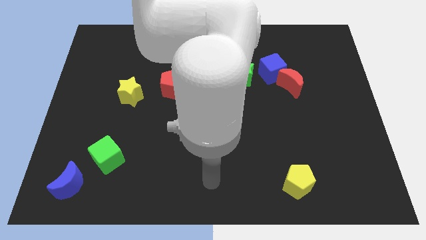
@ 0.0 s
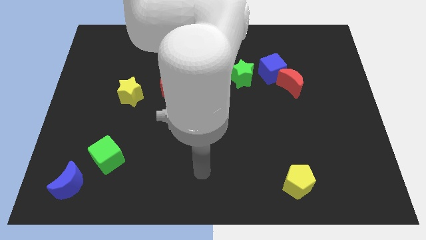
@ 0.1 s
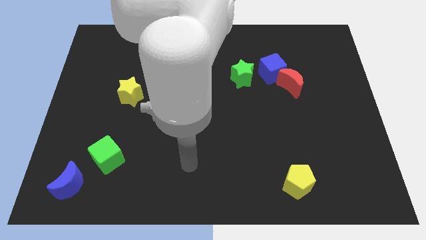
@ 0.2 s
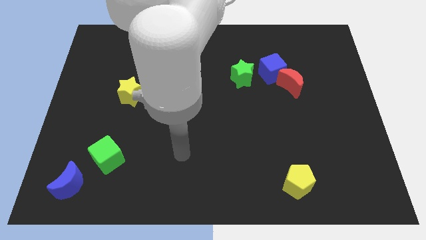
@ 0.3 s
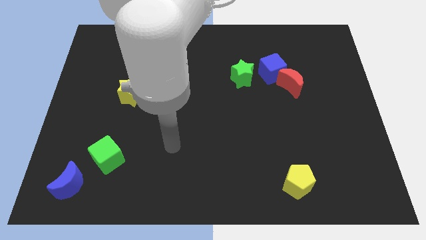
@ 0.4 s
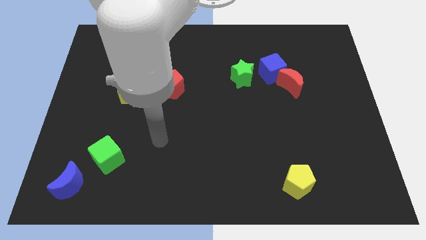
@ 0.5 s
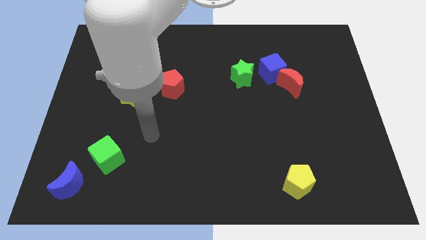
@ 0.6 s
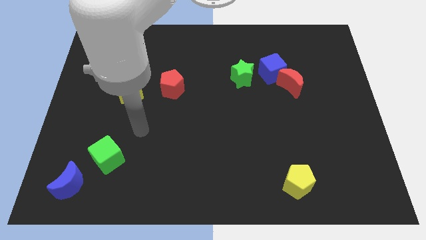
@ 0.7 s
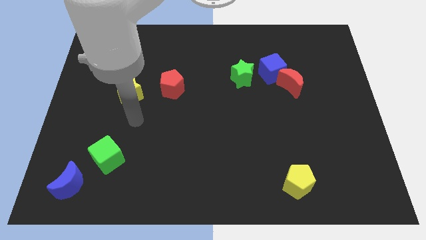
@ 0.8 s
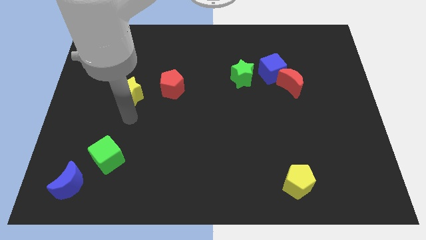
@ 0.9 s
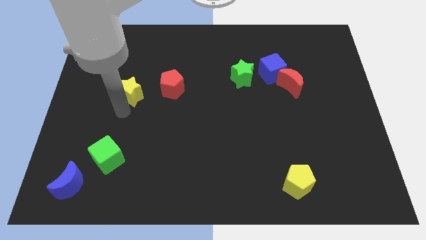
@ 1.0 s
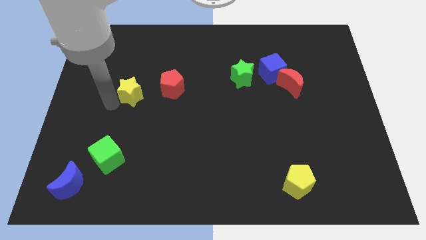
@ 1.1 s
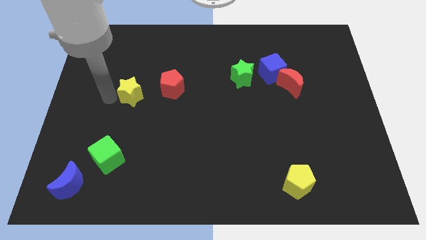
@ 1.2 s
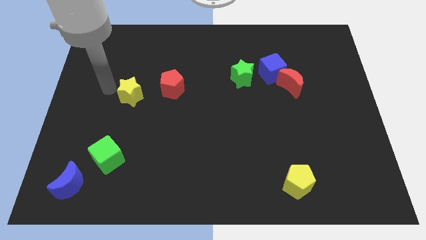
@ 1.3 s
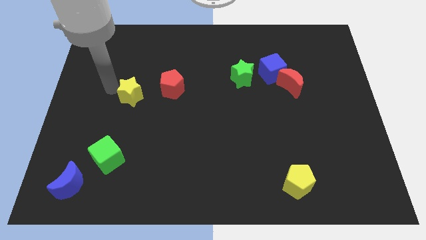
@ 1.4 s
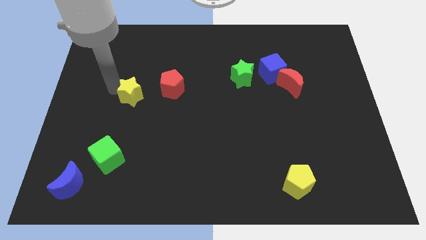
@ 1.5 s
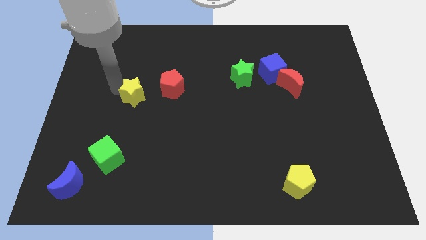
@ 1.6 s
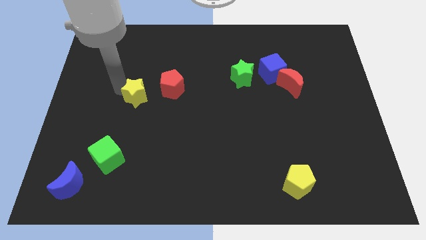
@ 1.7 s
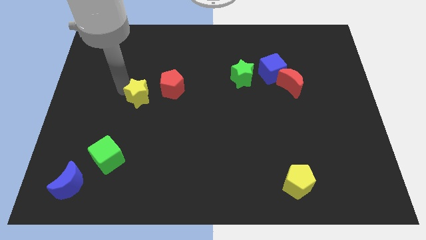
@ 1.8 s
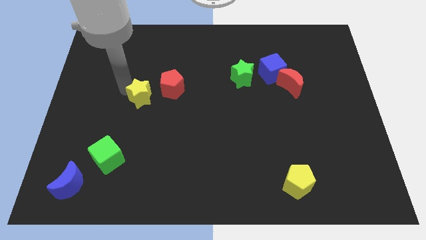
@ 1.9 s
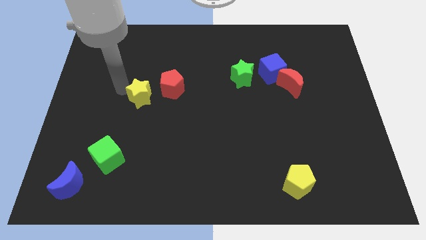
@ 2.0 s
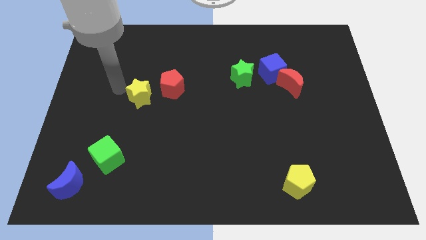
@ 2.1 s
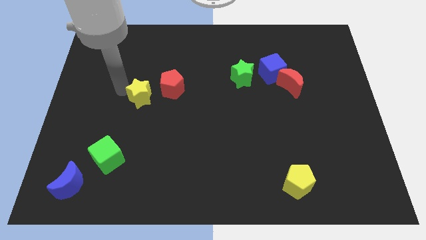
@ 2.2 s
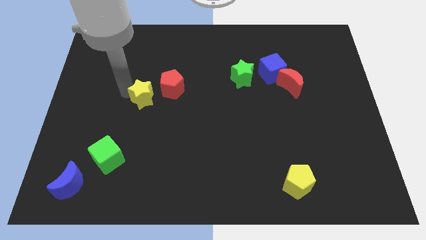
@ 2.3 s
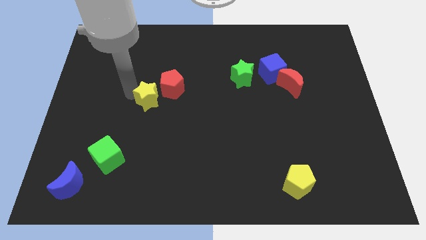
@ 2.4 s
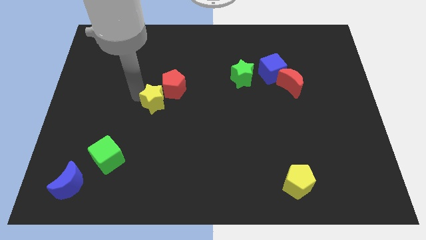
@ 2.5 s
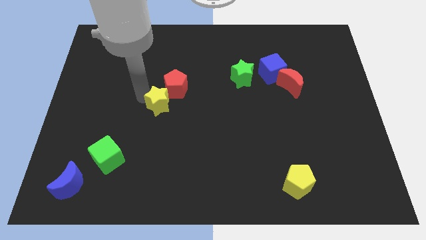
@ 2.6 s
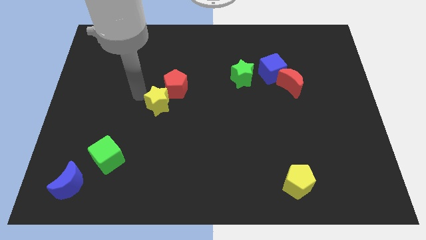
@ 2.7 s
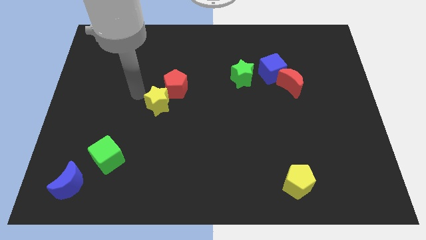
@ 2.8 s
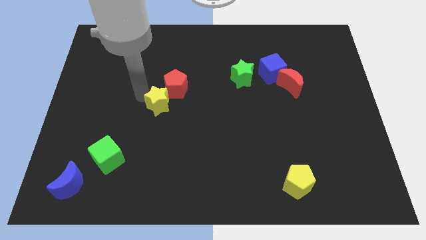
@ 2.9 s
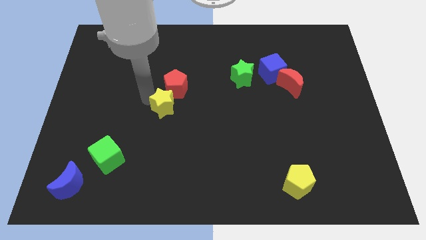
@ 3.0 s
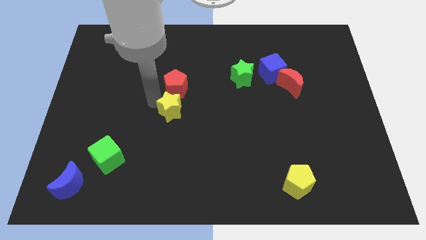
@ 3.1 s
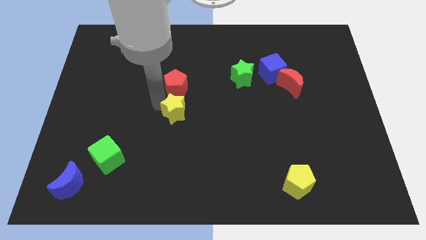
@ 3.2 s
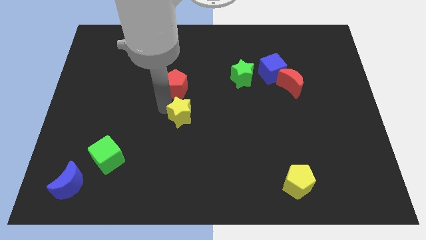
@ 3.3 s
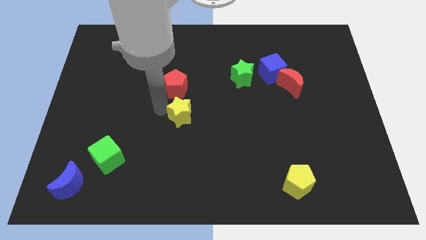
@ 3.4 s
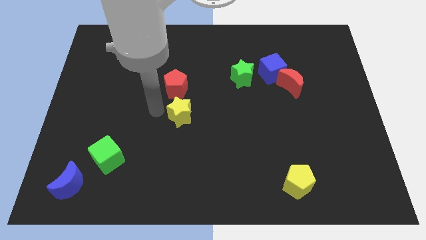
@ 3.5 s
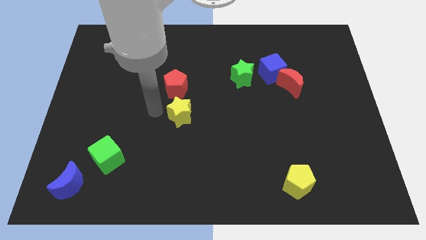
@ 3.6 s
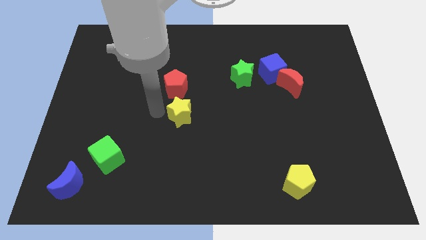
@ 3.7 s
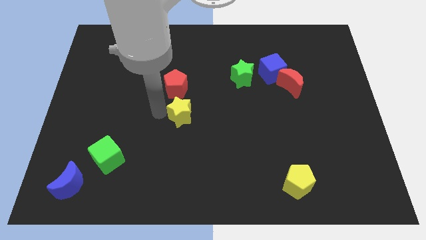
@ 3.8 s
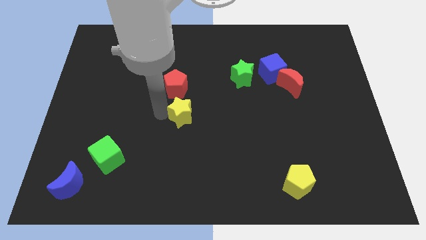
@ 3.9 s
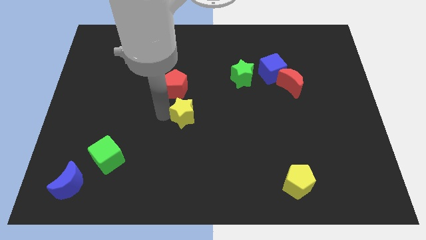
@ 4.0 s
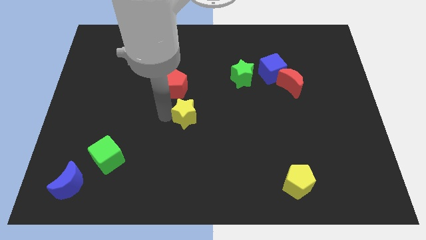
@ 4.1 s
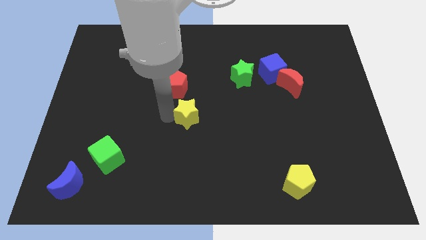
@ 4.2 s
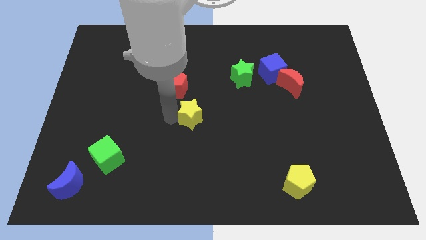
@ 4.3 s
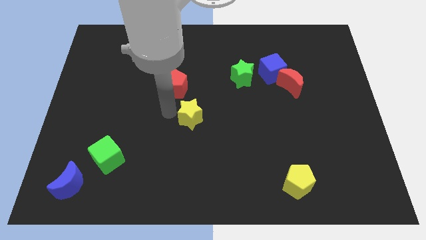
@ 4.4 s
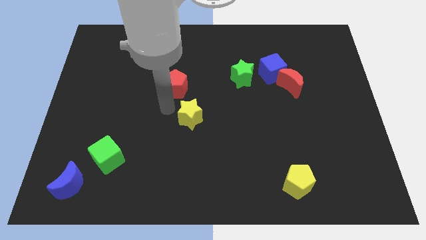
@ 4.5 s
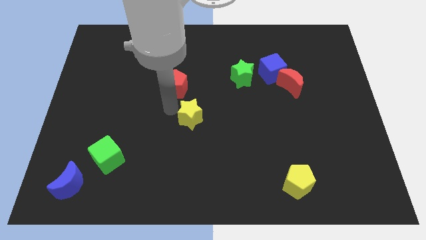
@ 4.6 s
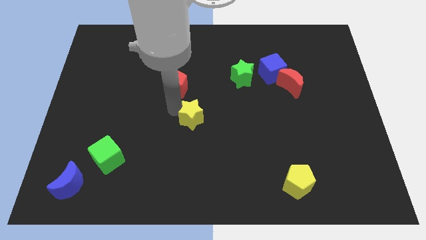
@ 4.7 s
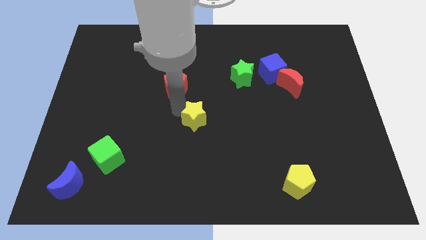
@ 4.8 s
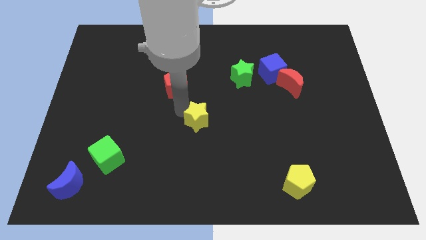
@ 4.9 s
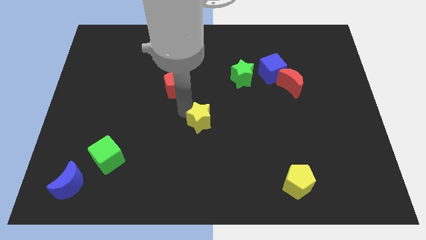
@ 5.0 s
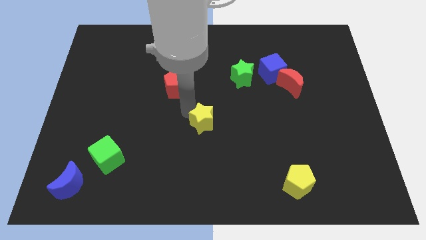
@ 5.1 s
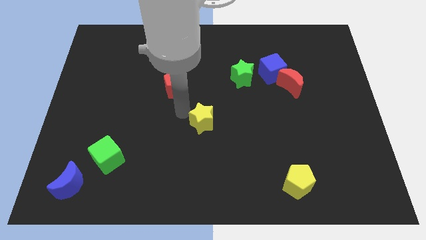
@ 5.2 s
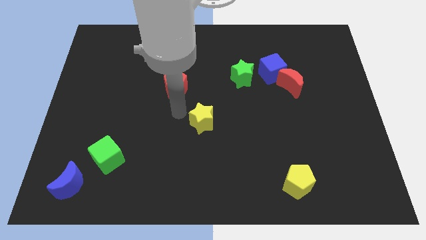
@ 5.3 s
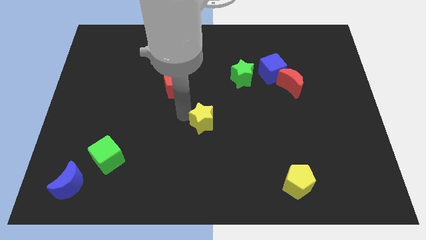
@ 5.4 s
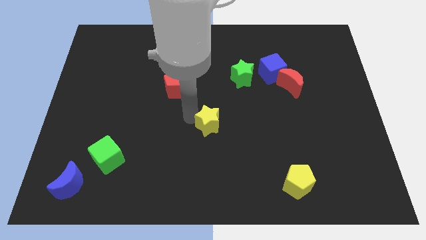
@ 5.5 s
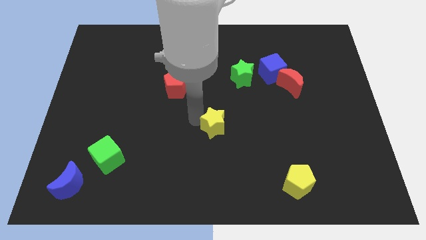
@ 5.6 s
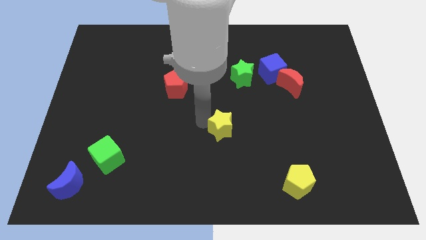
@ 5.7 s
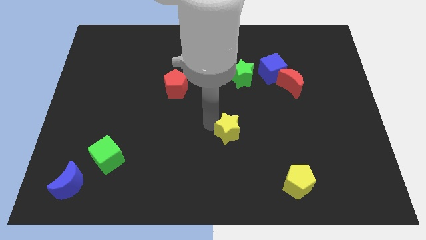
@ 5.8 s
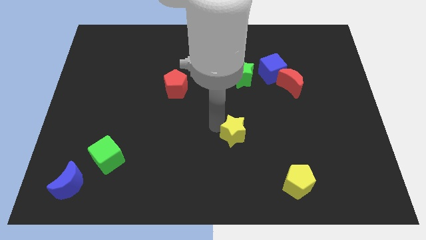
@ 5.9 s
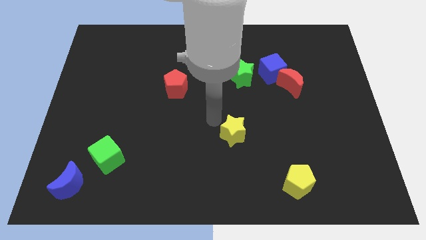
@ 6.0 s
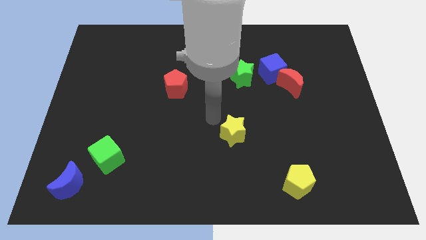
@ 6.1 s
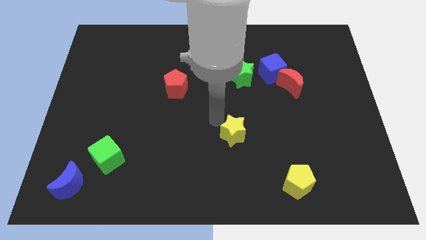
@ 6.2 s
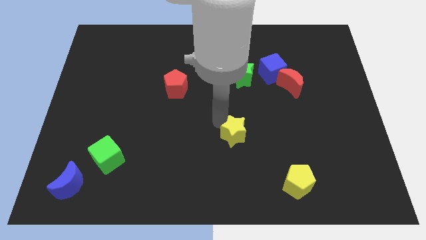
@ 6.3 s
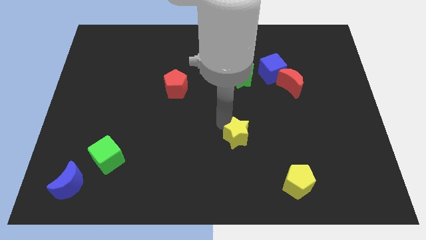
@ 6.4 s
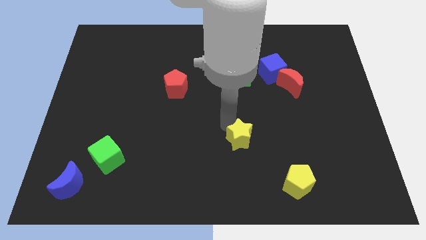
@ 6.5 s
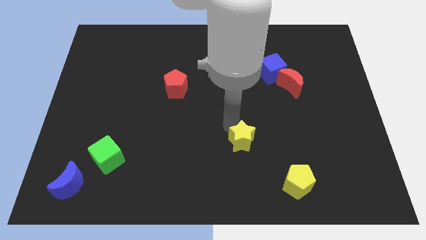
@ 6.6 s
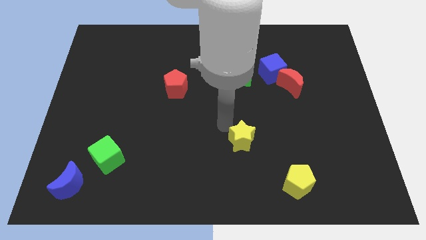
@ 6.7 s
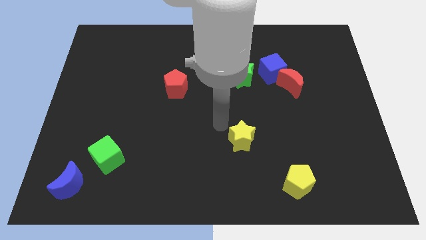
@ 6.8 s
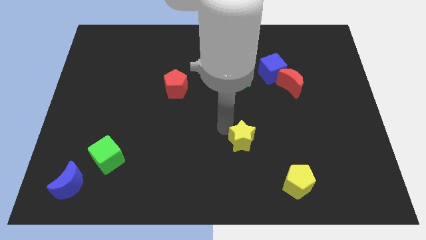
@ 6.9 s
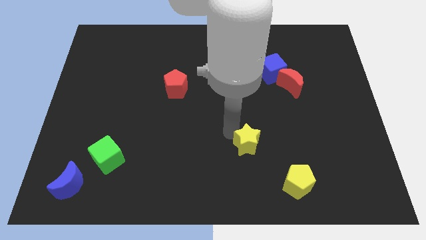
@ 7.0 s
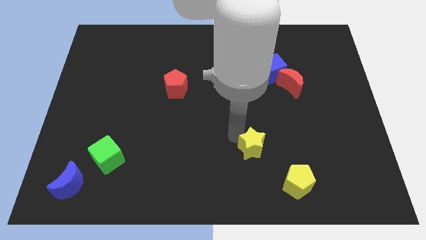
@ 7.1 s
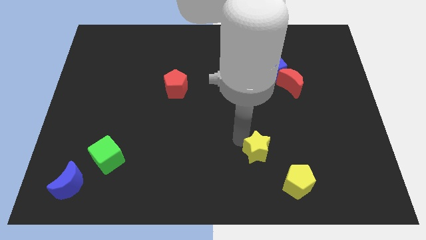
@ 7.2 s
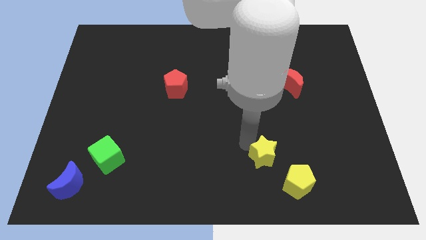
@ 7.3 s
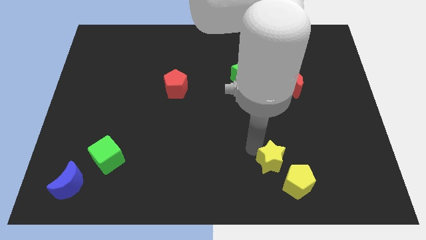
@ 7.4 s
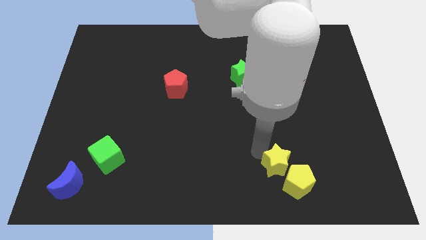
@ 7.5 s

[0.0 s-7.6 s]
push the yellow star close to the yellow pentagon

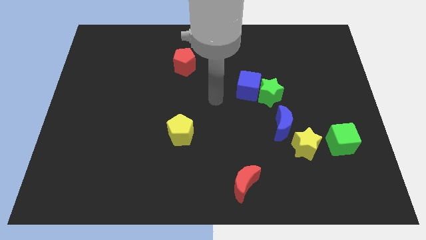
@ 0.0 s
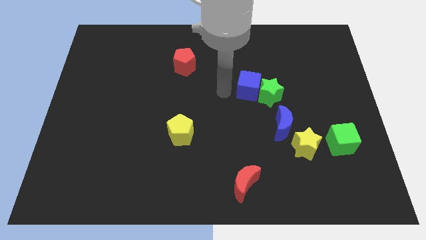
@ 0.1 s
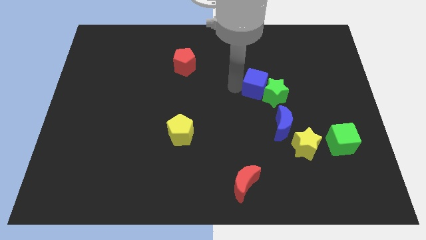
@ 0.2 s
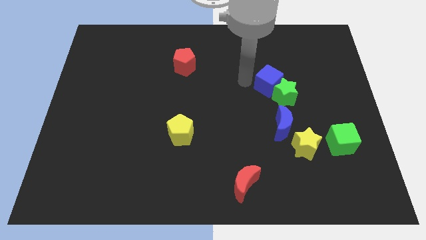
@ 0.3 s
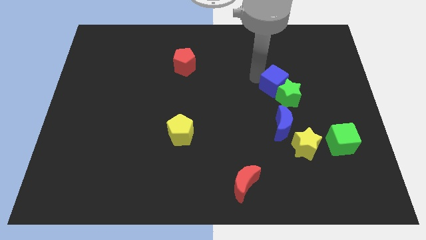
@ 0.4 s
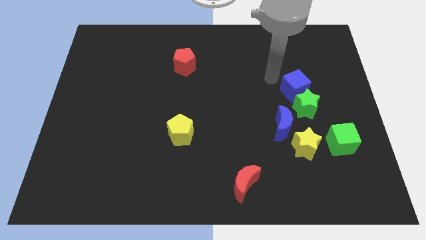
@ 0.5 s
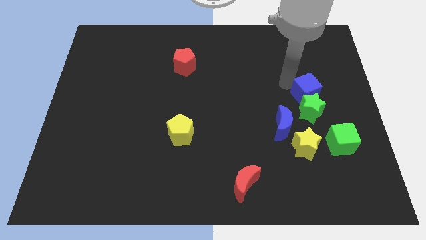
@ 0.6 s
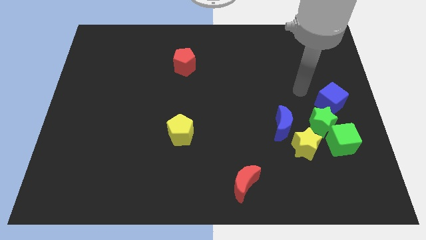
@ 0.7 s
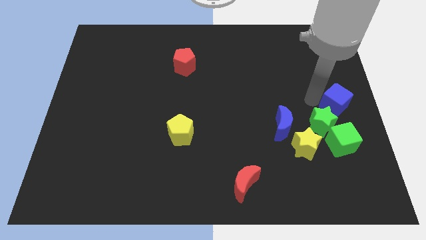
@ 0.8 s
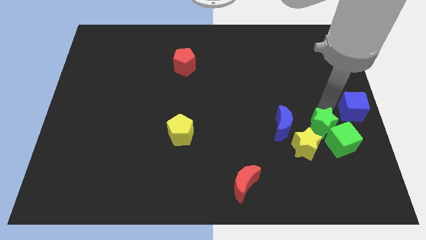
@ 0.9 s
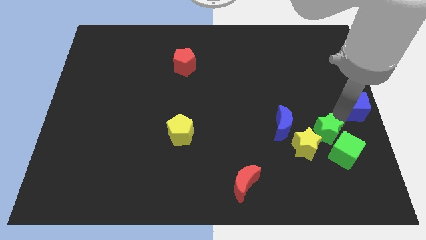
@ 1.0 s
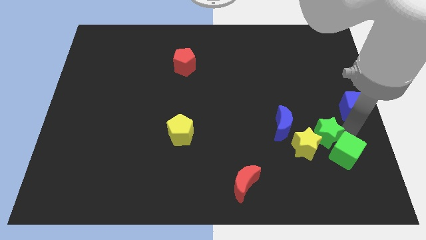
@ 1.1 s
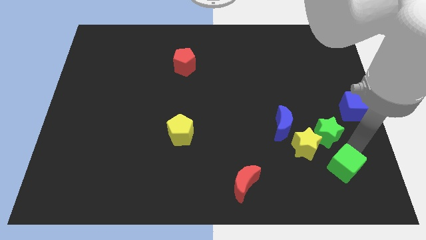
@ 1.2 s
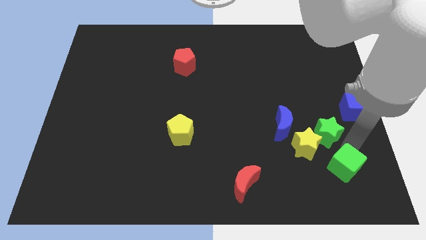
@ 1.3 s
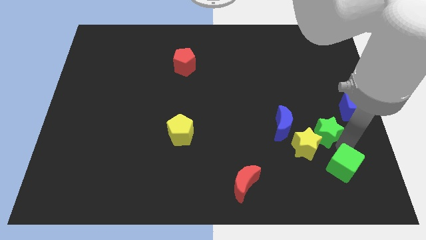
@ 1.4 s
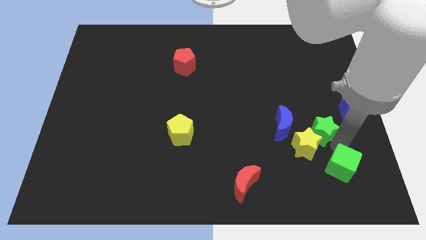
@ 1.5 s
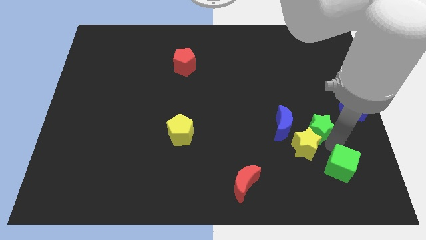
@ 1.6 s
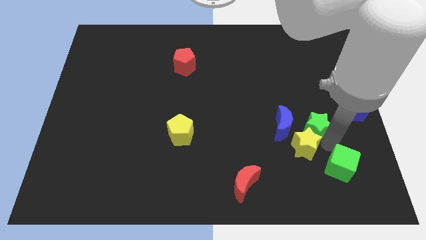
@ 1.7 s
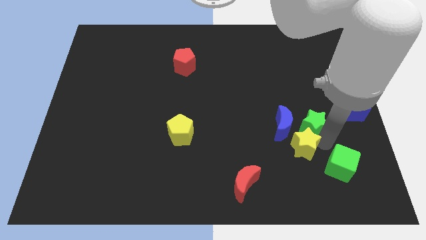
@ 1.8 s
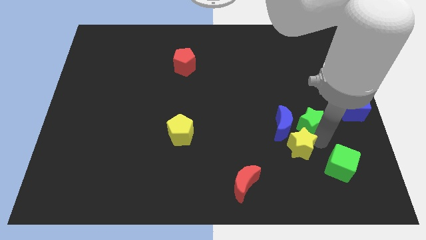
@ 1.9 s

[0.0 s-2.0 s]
put the green star towards the blue moon
